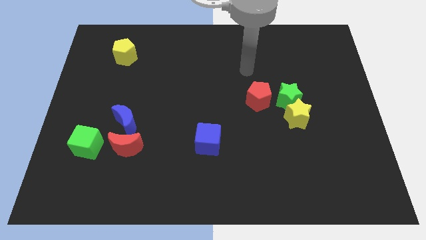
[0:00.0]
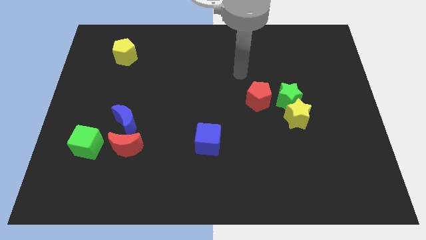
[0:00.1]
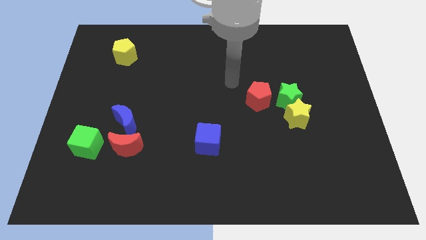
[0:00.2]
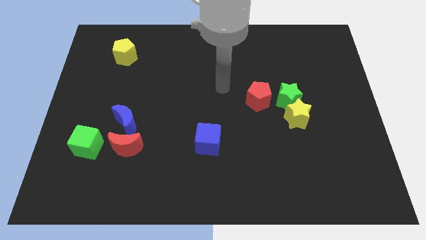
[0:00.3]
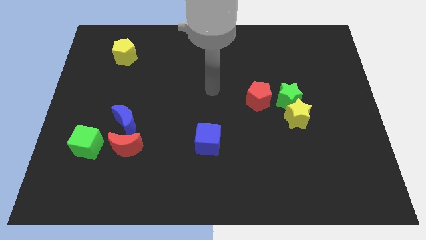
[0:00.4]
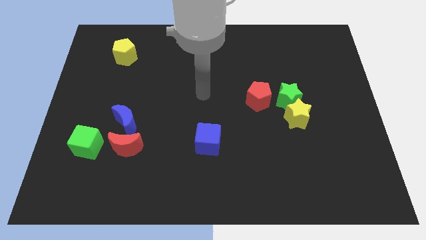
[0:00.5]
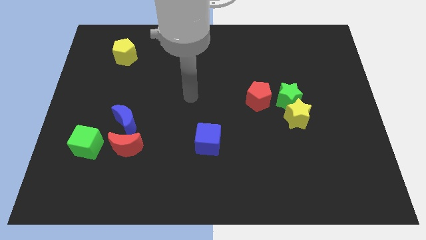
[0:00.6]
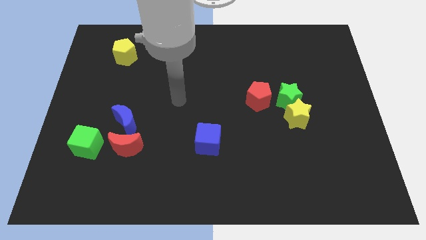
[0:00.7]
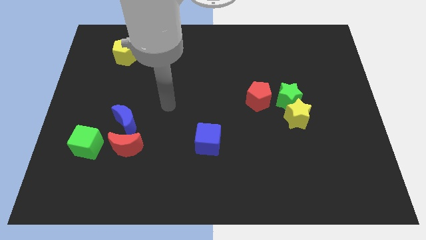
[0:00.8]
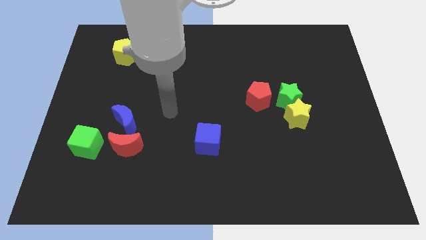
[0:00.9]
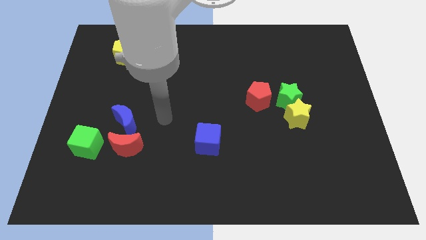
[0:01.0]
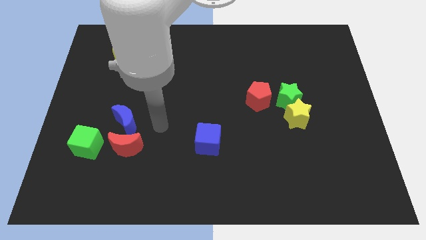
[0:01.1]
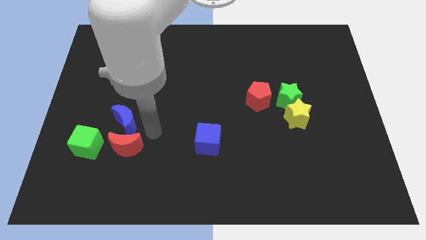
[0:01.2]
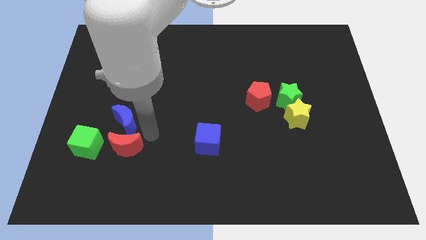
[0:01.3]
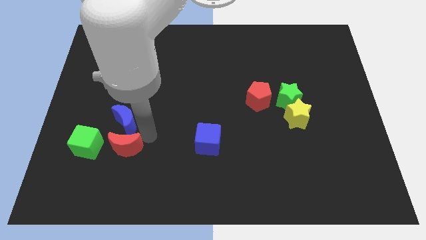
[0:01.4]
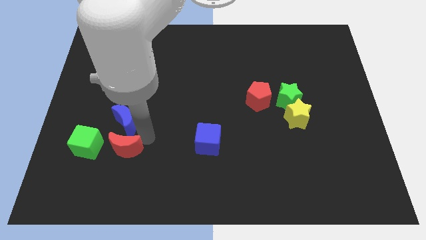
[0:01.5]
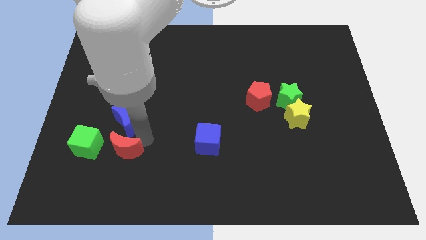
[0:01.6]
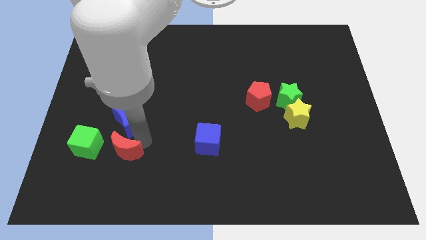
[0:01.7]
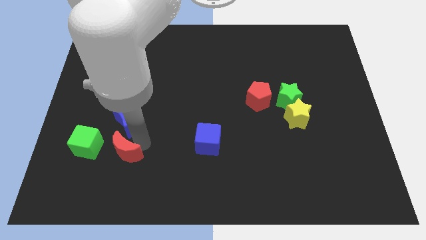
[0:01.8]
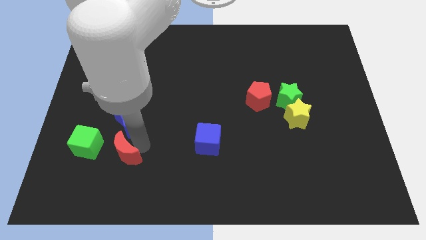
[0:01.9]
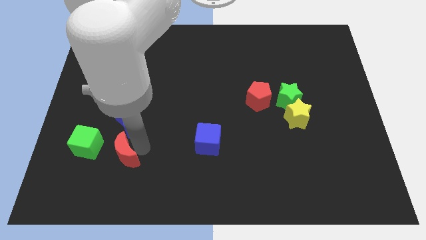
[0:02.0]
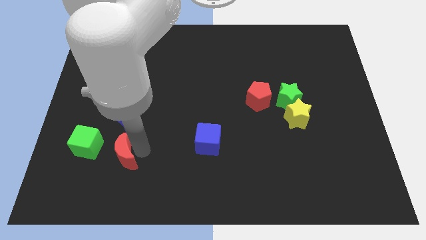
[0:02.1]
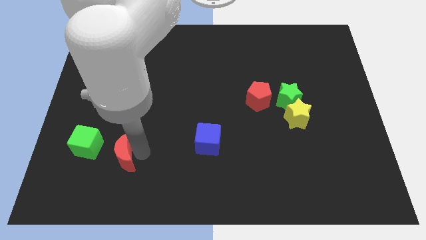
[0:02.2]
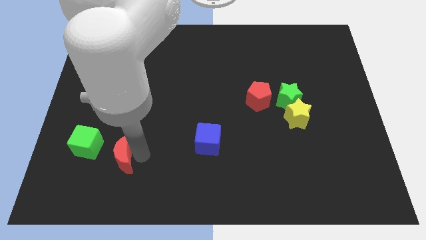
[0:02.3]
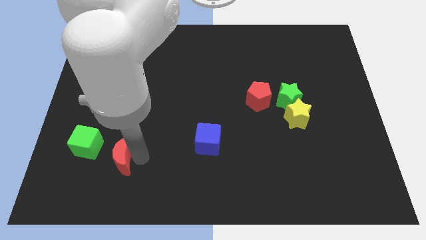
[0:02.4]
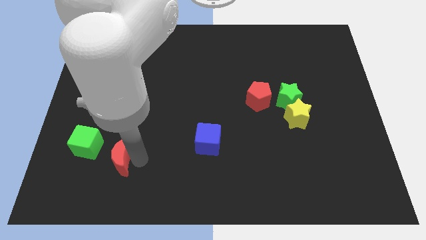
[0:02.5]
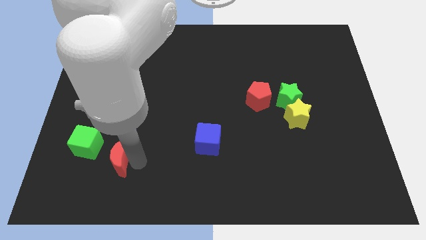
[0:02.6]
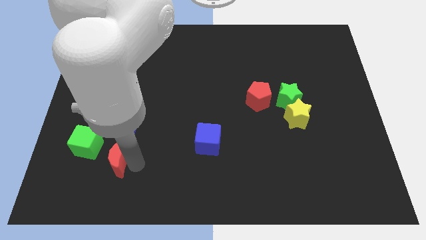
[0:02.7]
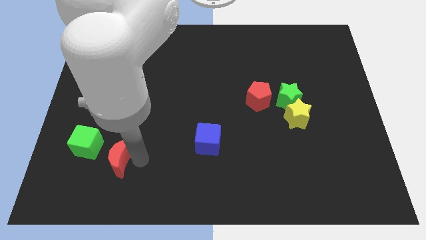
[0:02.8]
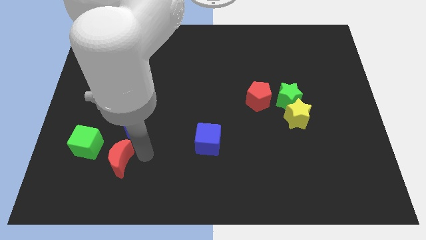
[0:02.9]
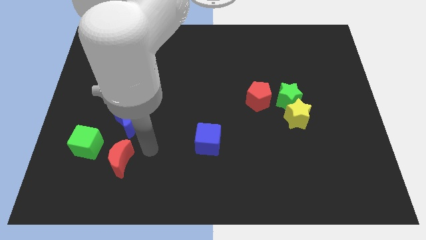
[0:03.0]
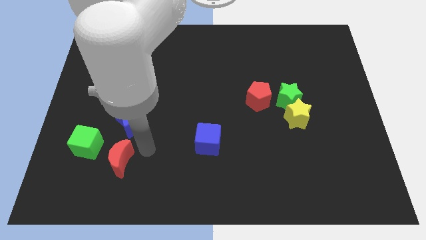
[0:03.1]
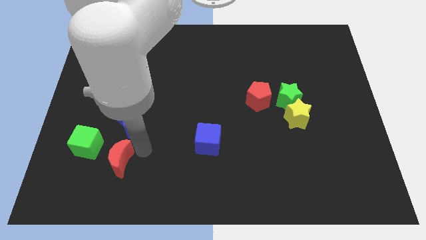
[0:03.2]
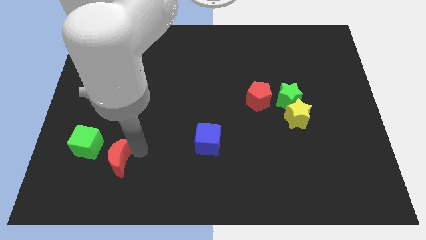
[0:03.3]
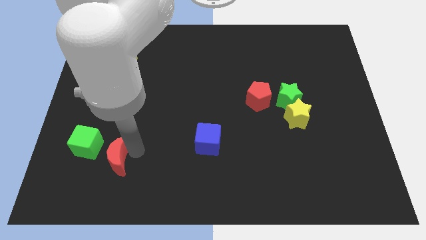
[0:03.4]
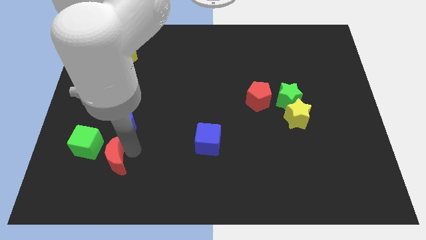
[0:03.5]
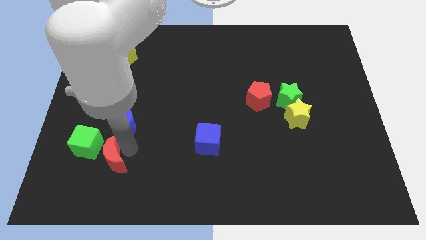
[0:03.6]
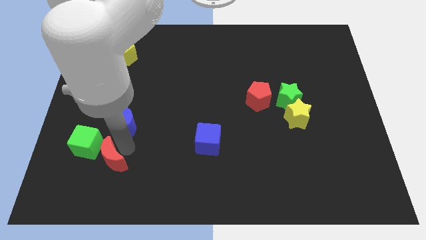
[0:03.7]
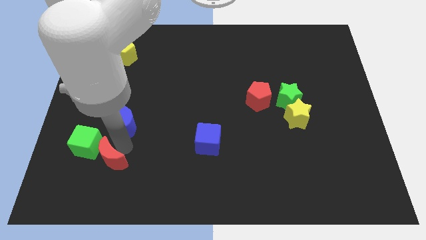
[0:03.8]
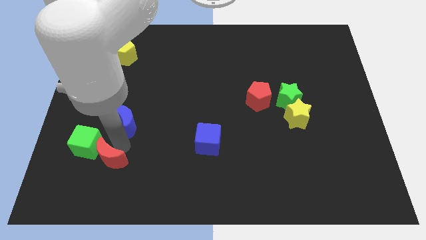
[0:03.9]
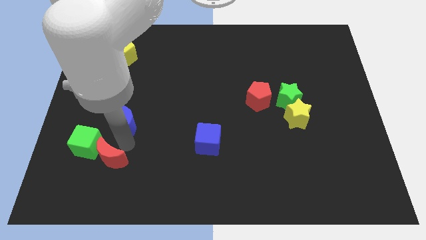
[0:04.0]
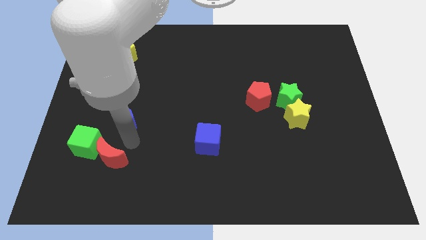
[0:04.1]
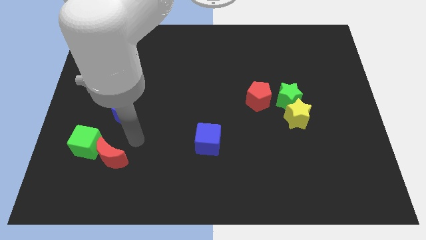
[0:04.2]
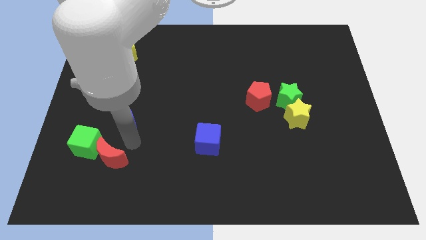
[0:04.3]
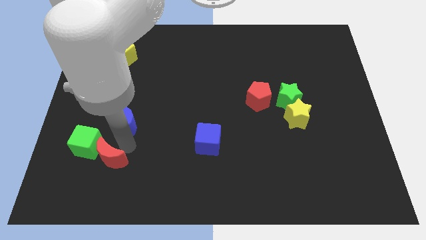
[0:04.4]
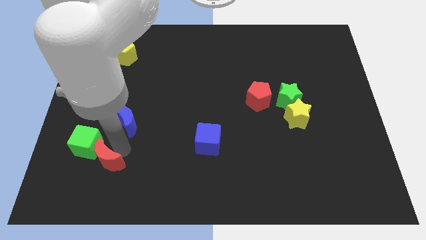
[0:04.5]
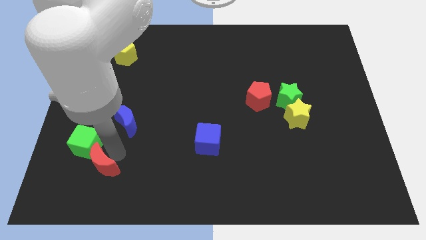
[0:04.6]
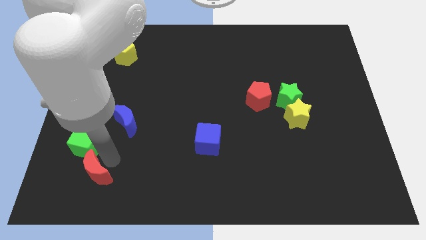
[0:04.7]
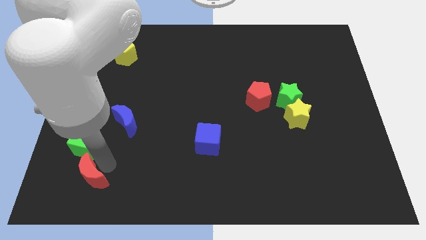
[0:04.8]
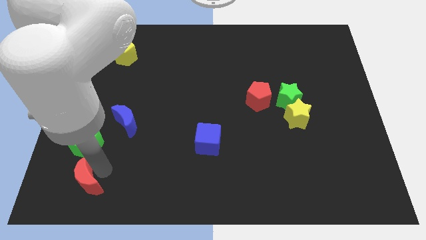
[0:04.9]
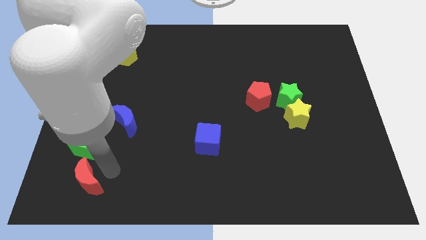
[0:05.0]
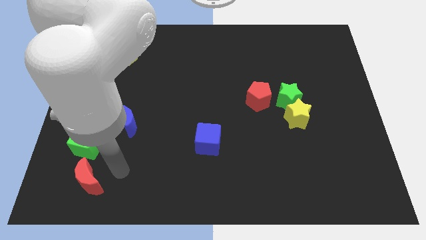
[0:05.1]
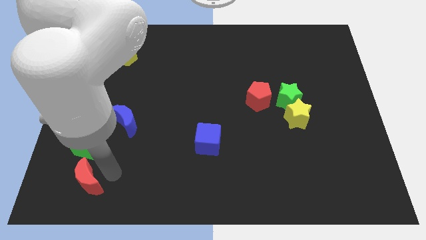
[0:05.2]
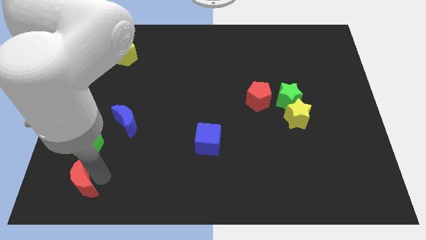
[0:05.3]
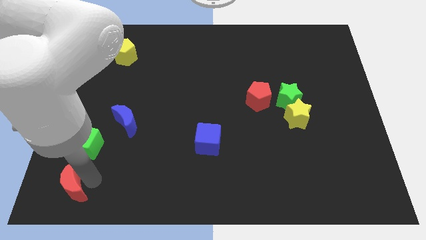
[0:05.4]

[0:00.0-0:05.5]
put the red moon to the bottom left of the board
